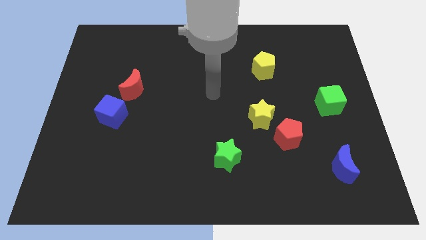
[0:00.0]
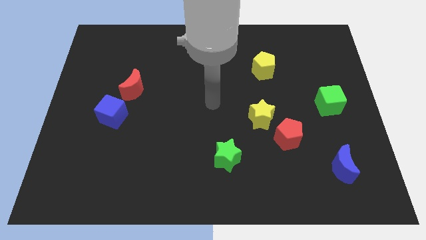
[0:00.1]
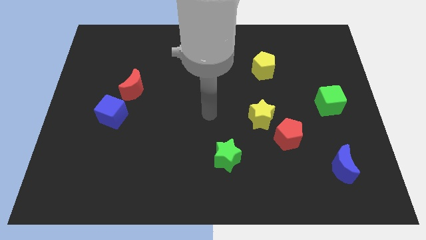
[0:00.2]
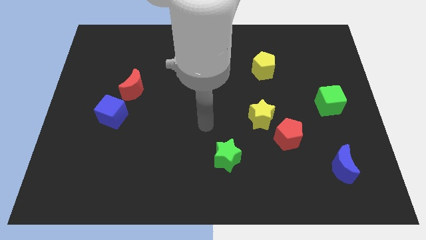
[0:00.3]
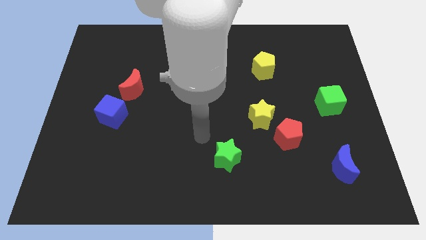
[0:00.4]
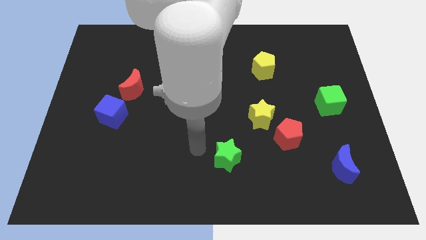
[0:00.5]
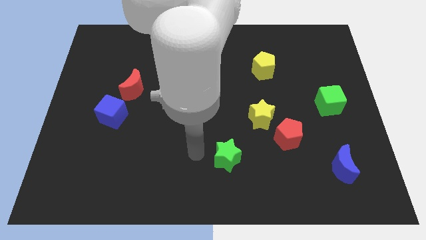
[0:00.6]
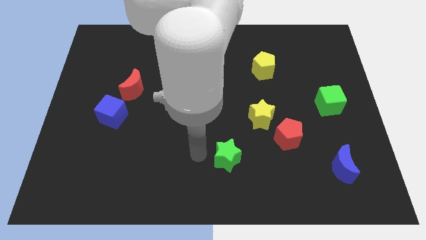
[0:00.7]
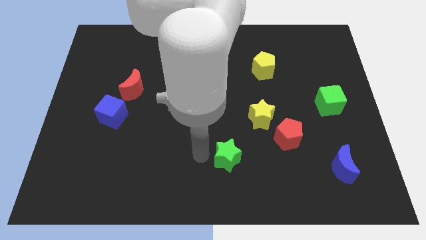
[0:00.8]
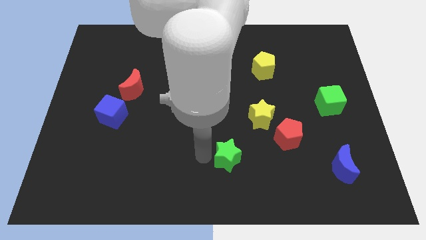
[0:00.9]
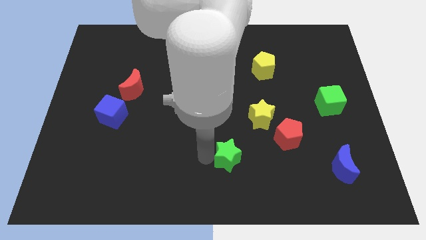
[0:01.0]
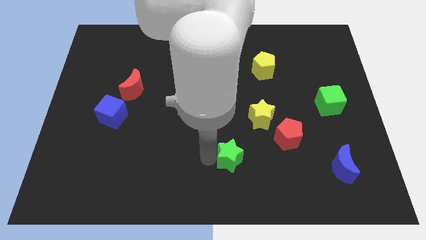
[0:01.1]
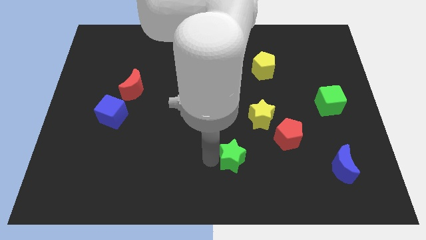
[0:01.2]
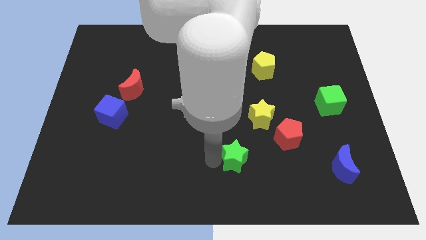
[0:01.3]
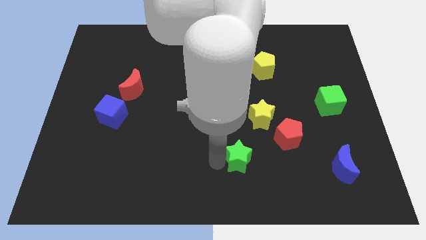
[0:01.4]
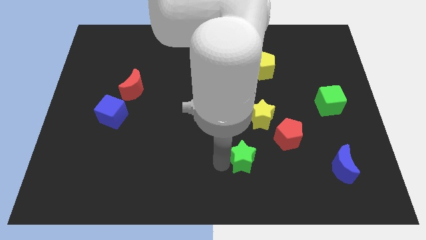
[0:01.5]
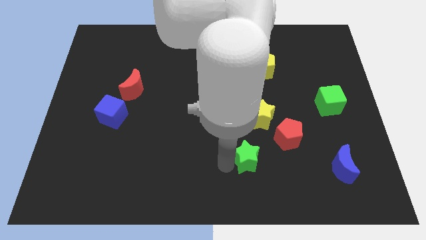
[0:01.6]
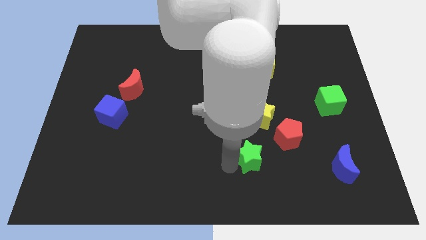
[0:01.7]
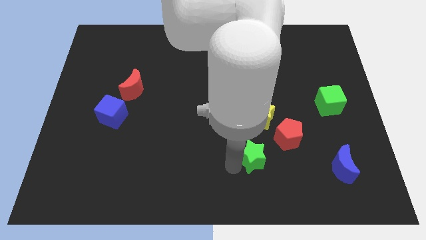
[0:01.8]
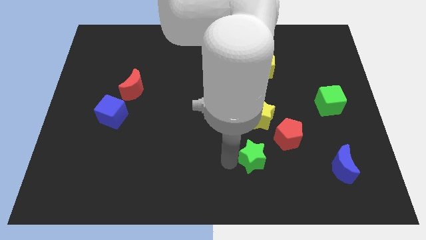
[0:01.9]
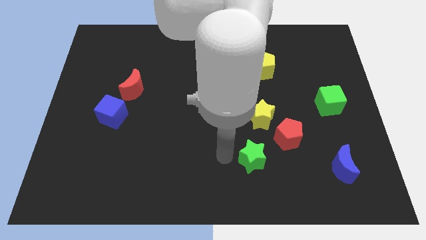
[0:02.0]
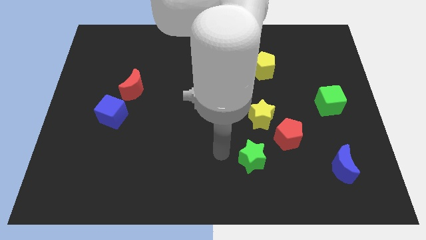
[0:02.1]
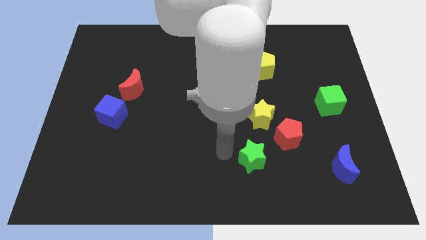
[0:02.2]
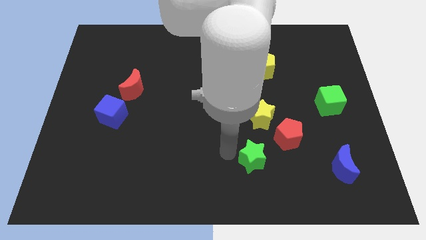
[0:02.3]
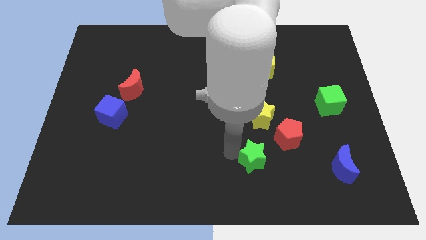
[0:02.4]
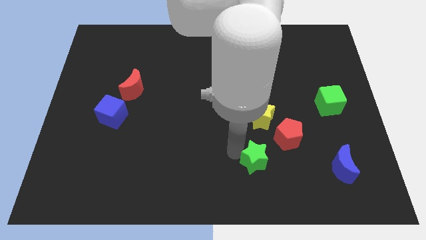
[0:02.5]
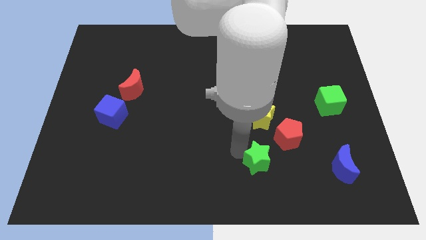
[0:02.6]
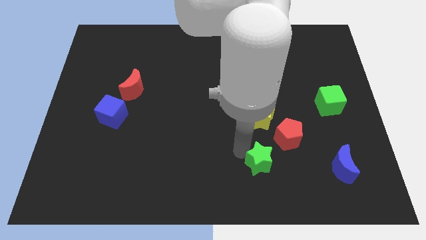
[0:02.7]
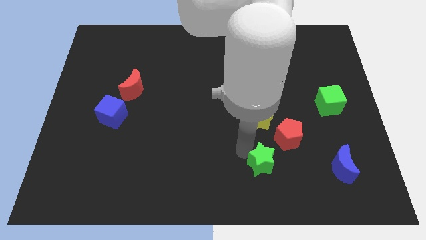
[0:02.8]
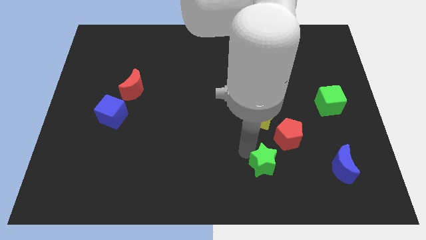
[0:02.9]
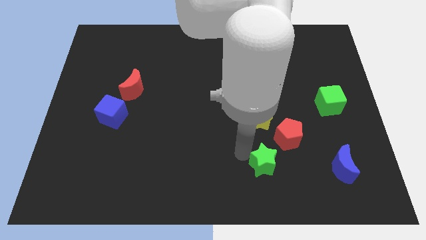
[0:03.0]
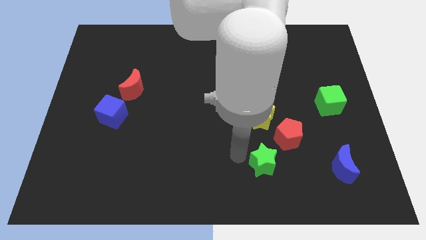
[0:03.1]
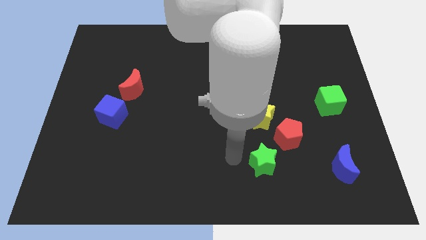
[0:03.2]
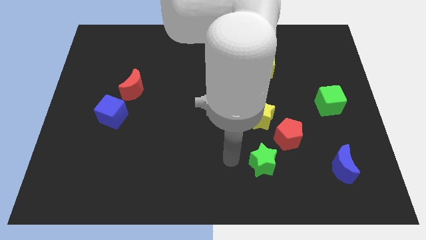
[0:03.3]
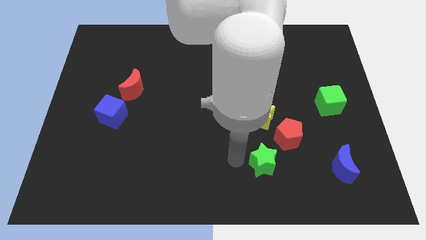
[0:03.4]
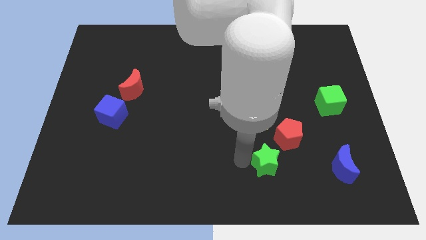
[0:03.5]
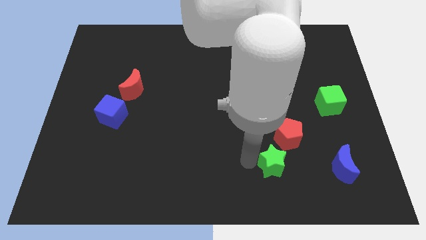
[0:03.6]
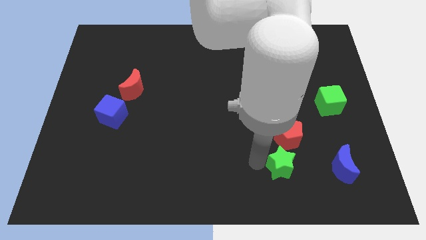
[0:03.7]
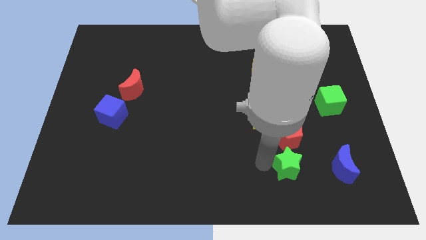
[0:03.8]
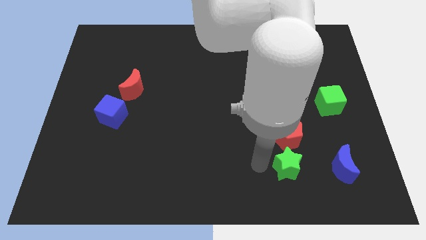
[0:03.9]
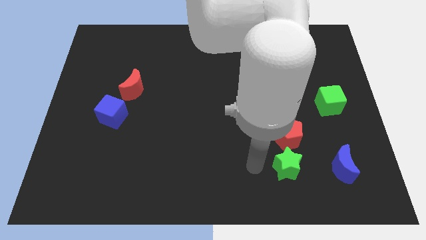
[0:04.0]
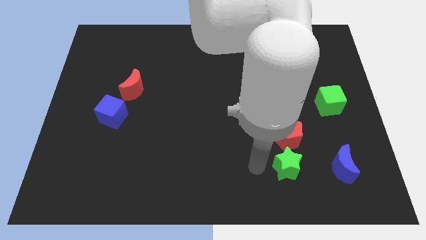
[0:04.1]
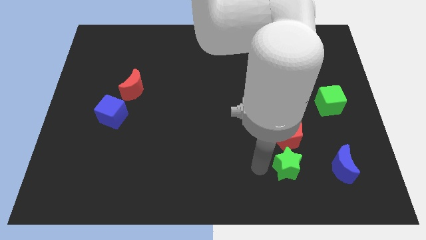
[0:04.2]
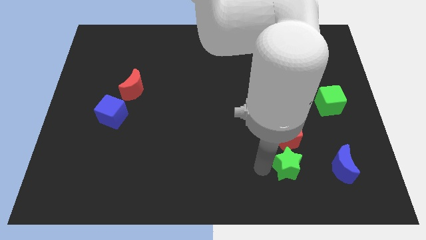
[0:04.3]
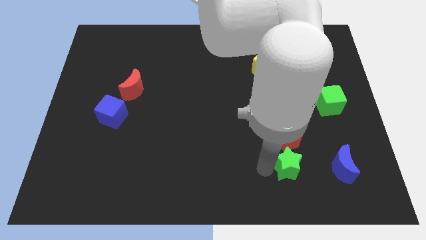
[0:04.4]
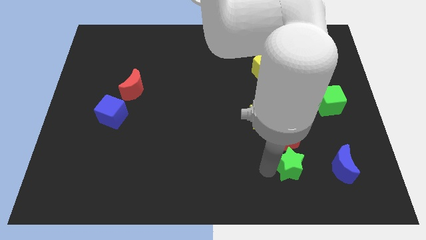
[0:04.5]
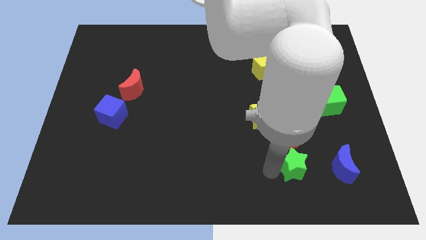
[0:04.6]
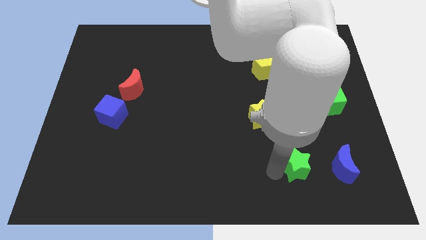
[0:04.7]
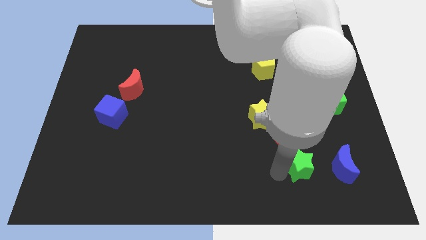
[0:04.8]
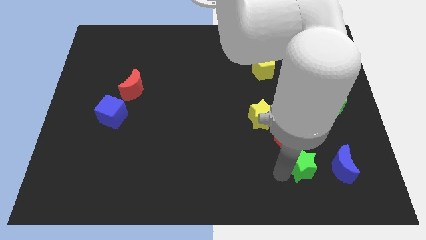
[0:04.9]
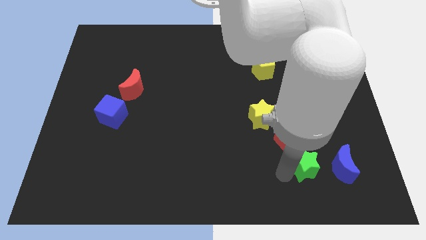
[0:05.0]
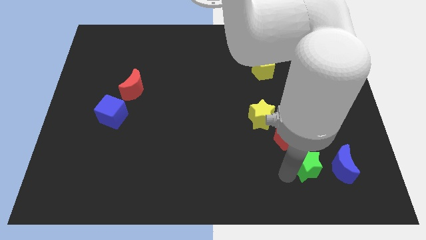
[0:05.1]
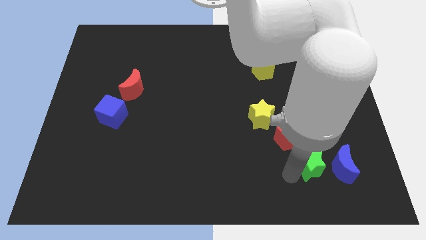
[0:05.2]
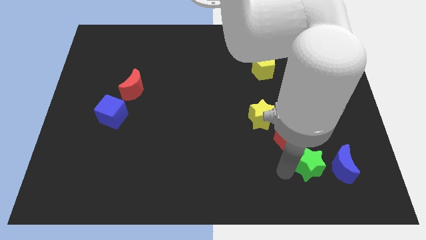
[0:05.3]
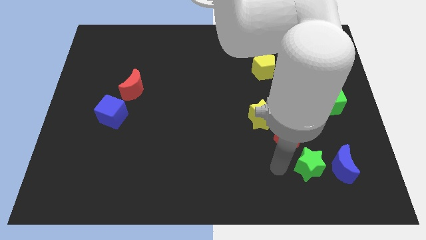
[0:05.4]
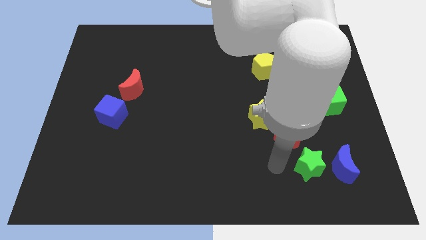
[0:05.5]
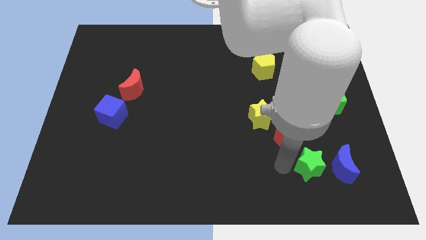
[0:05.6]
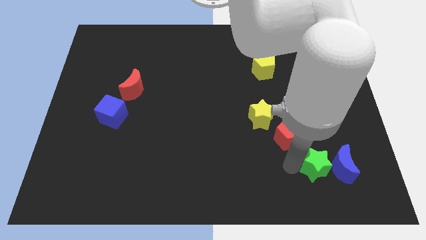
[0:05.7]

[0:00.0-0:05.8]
put the green star to the blue moon

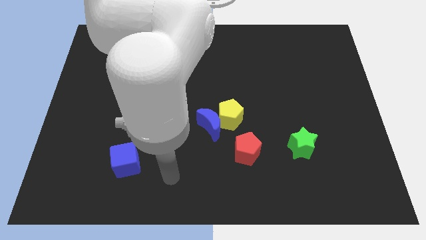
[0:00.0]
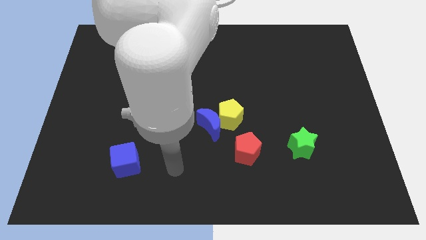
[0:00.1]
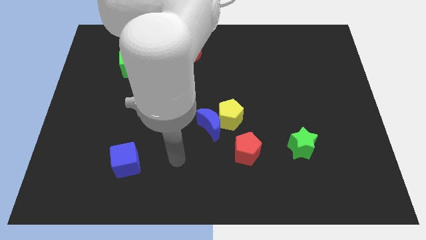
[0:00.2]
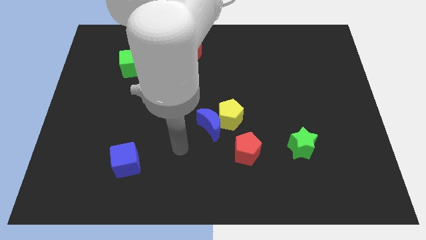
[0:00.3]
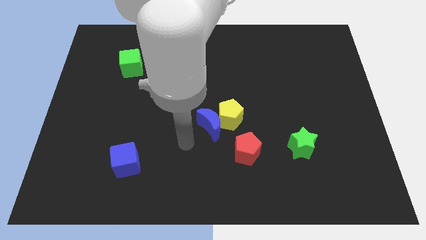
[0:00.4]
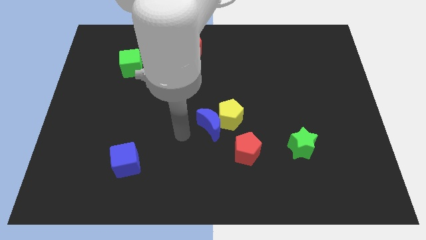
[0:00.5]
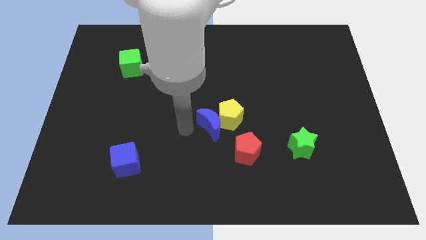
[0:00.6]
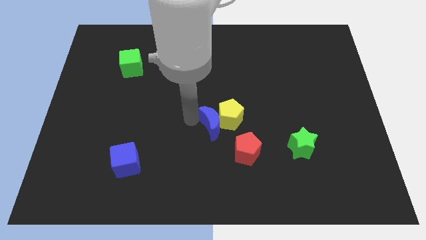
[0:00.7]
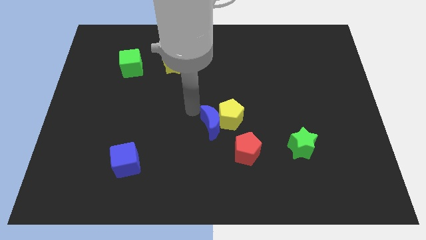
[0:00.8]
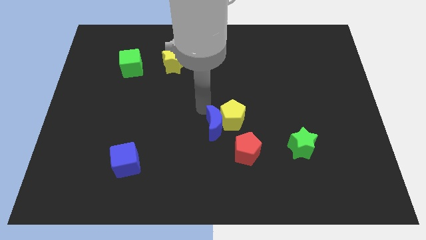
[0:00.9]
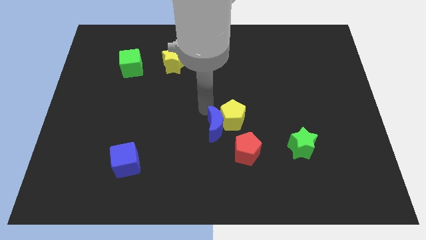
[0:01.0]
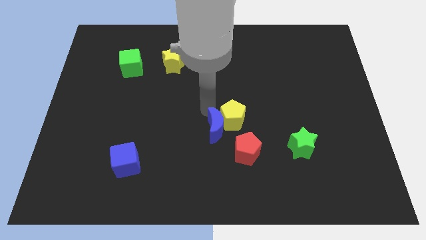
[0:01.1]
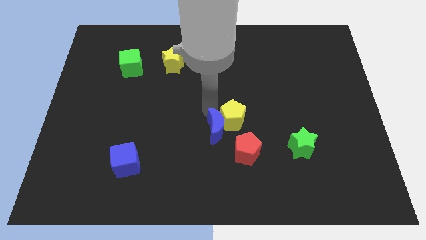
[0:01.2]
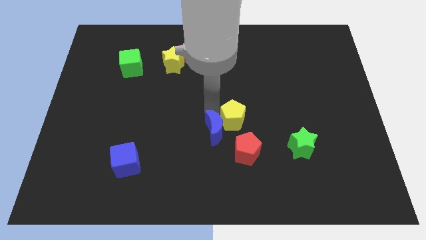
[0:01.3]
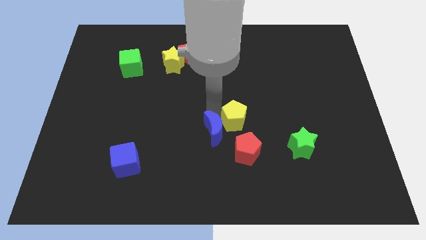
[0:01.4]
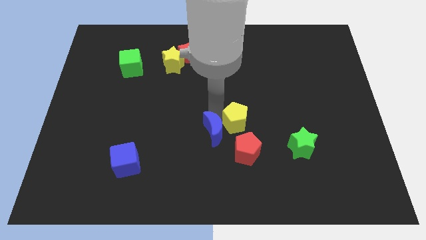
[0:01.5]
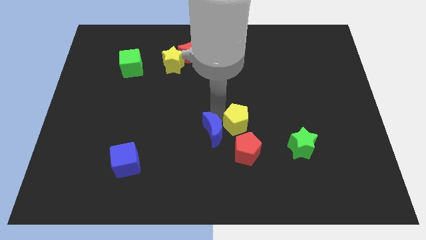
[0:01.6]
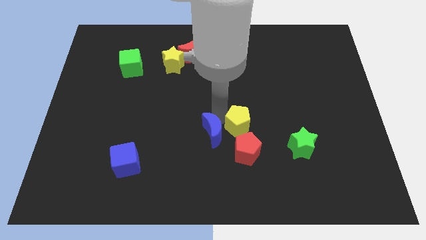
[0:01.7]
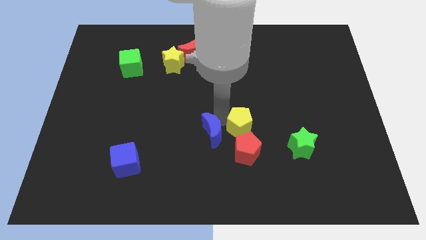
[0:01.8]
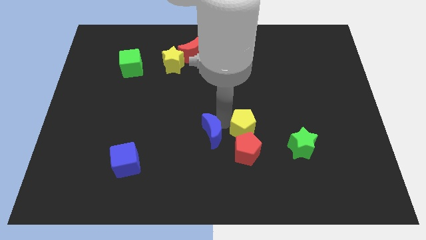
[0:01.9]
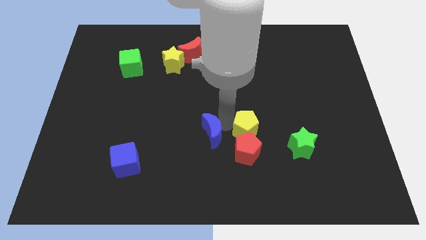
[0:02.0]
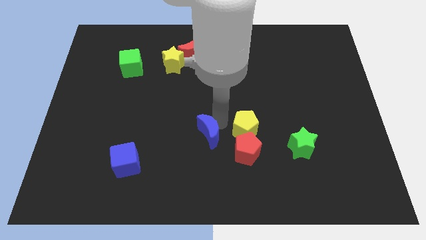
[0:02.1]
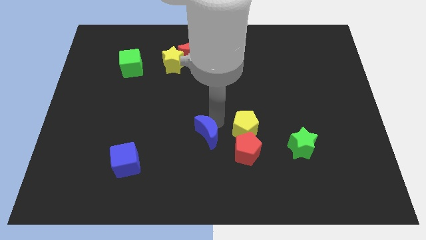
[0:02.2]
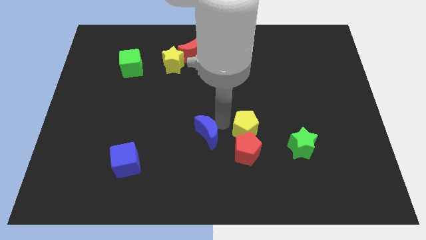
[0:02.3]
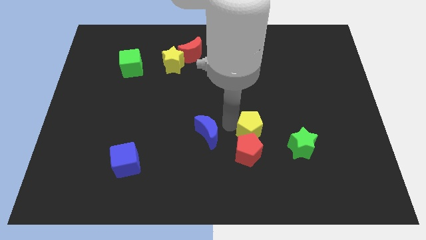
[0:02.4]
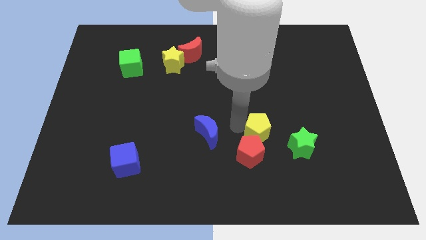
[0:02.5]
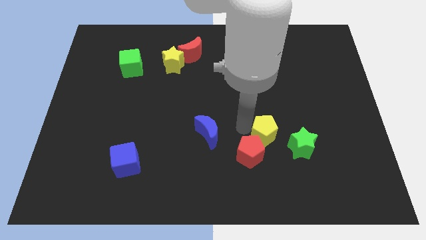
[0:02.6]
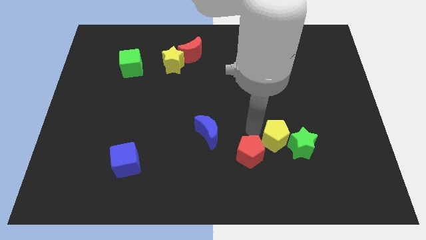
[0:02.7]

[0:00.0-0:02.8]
put the yellow pentagon towards the green star
